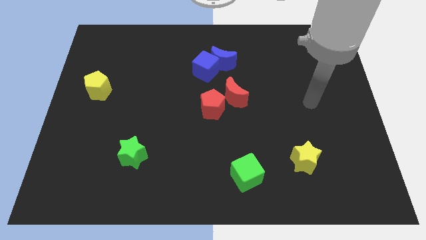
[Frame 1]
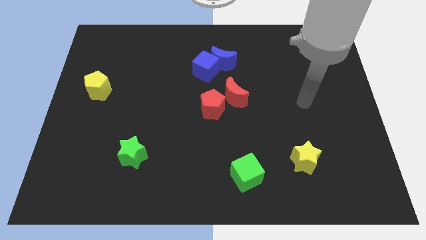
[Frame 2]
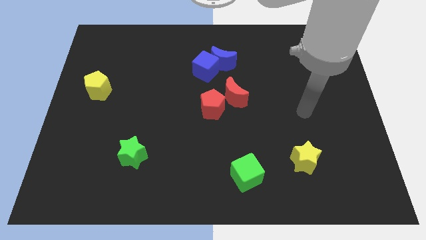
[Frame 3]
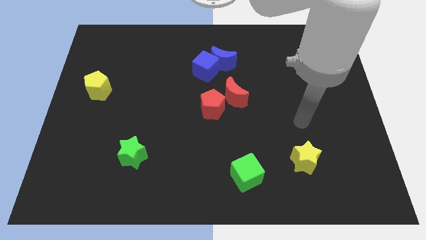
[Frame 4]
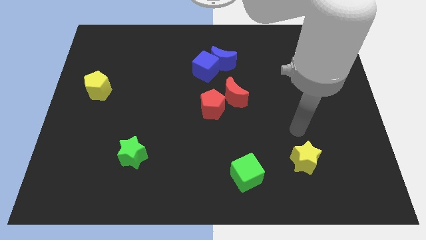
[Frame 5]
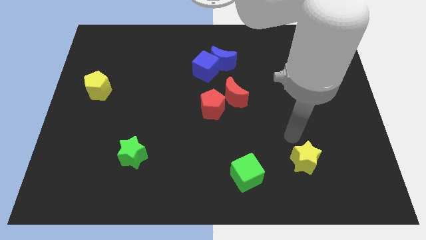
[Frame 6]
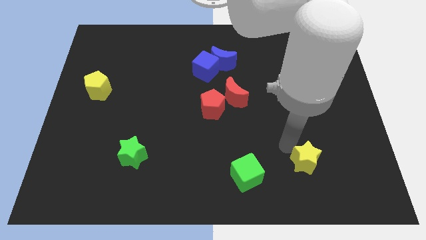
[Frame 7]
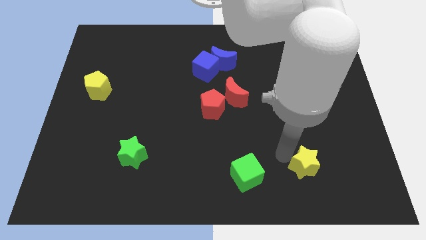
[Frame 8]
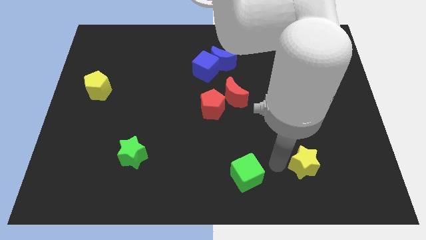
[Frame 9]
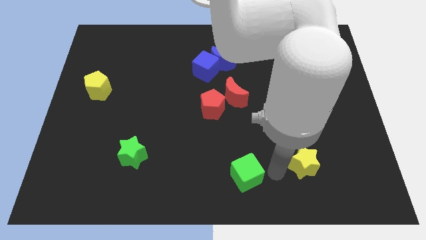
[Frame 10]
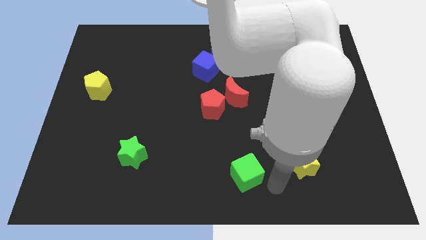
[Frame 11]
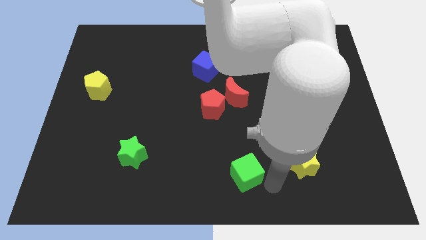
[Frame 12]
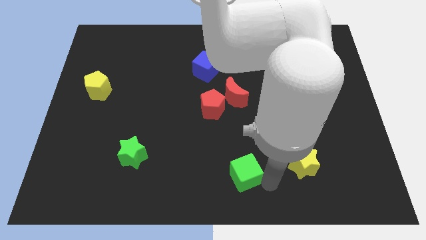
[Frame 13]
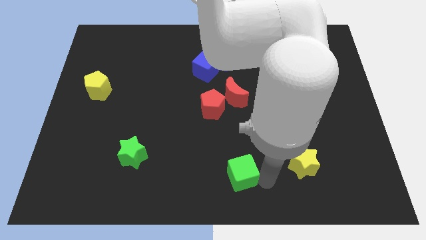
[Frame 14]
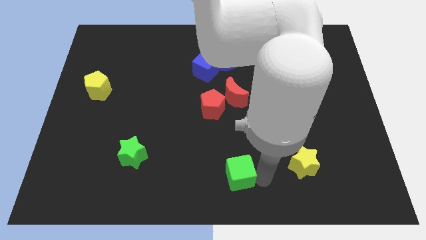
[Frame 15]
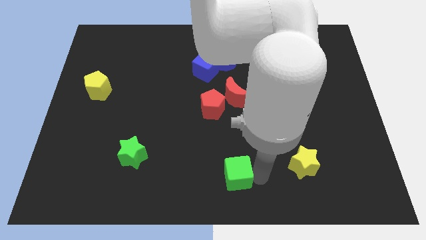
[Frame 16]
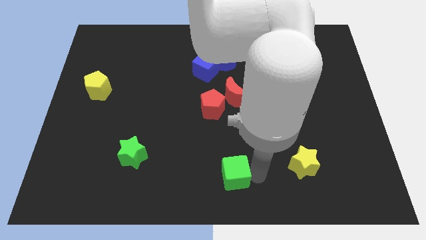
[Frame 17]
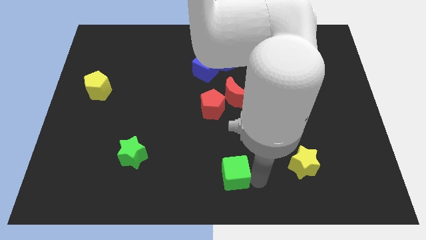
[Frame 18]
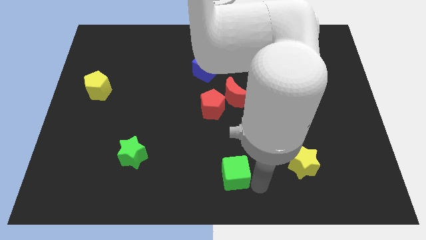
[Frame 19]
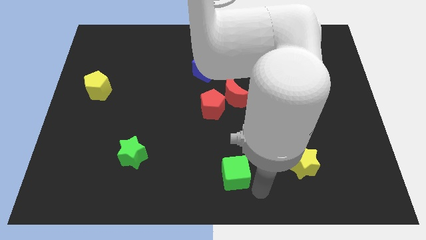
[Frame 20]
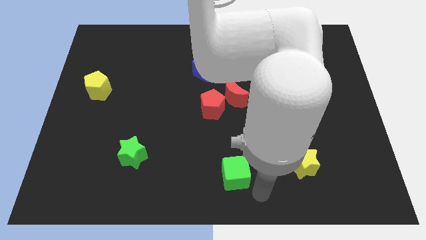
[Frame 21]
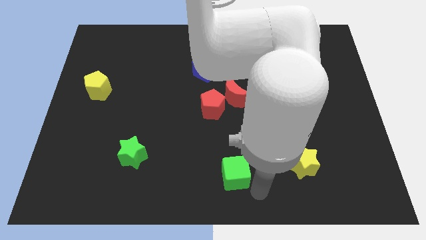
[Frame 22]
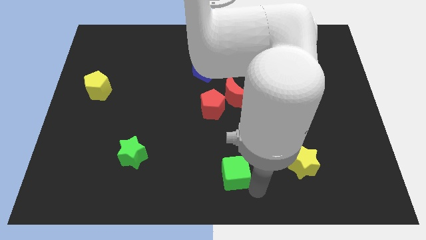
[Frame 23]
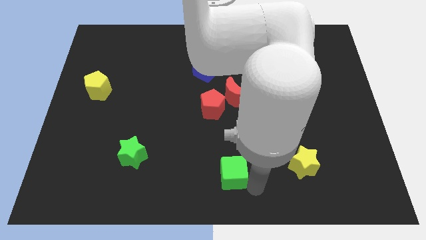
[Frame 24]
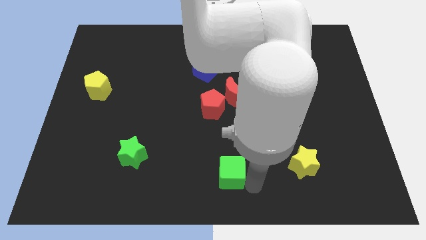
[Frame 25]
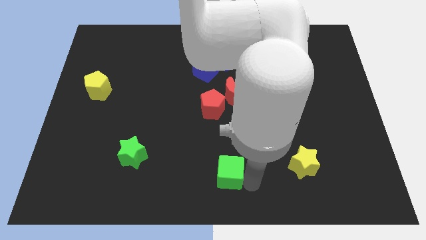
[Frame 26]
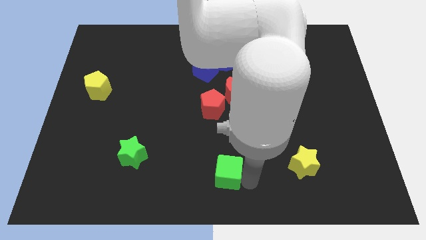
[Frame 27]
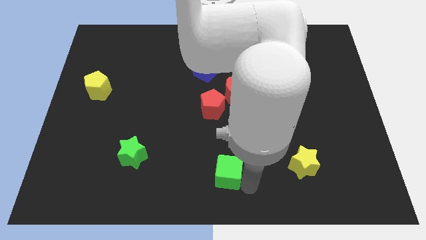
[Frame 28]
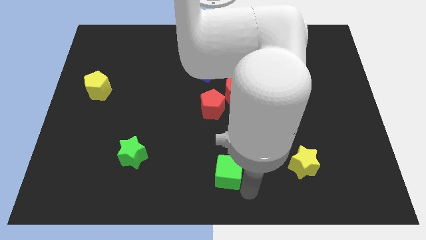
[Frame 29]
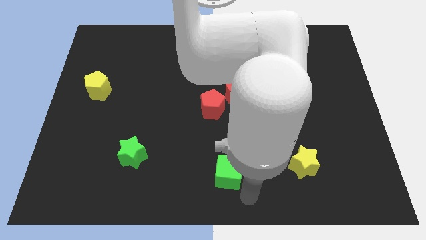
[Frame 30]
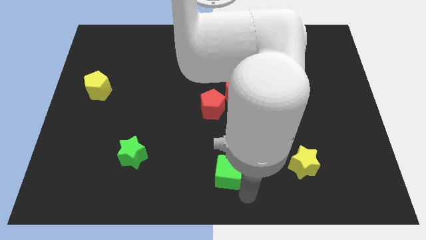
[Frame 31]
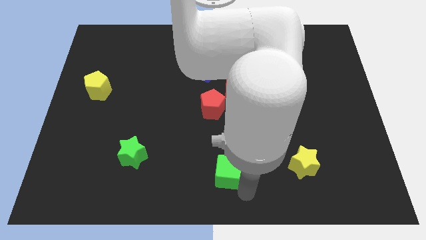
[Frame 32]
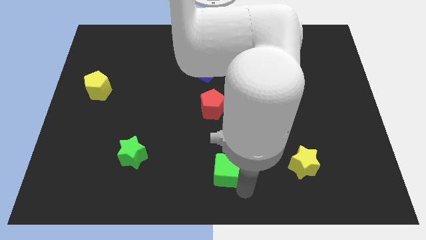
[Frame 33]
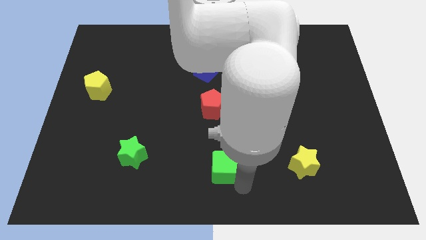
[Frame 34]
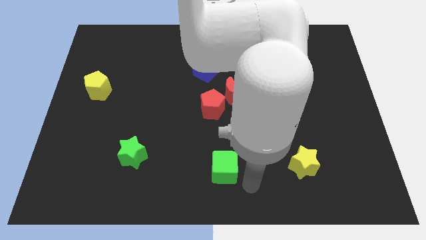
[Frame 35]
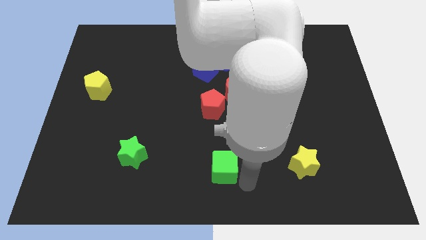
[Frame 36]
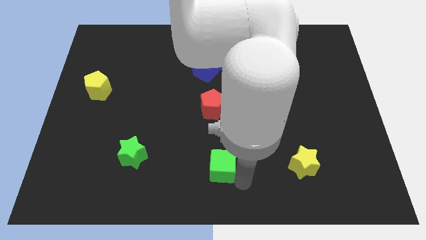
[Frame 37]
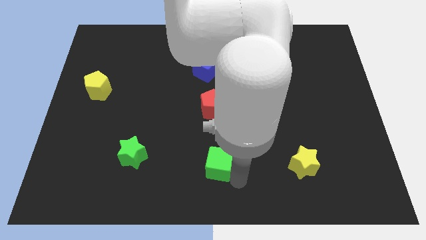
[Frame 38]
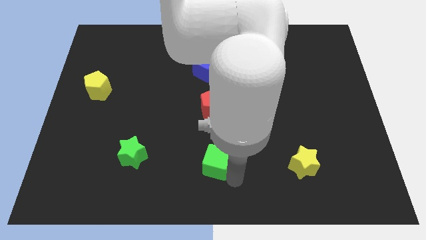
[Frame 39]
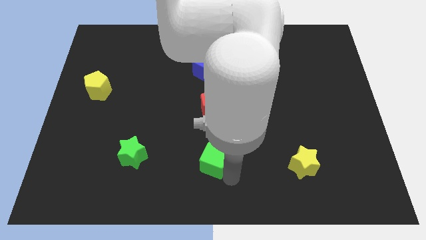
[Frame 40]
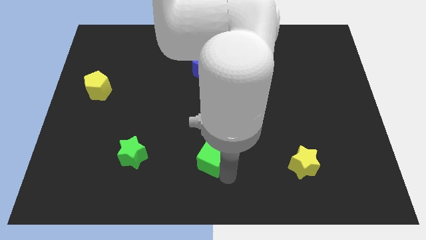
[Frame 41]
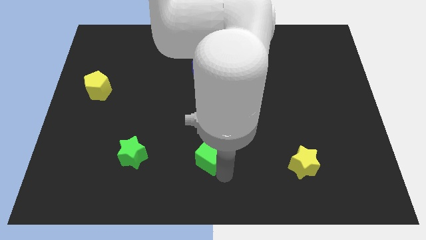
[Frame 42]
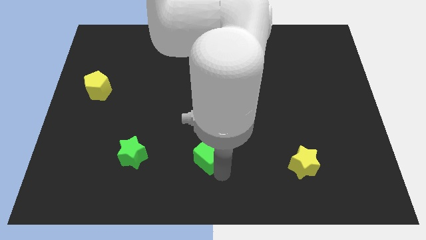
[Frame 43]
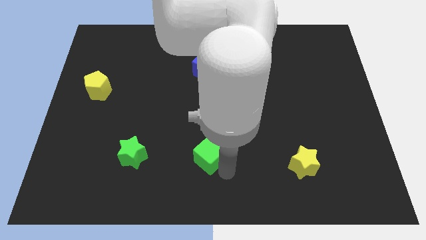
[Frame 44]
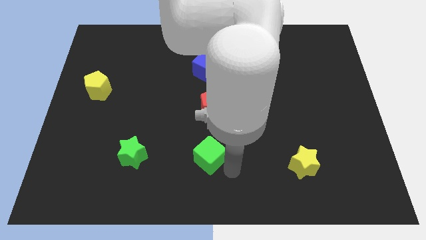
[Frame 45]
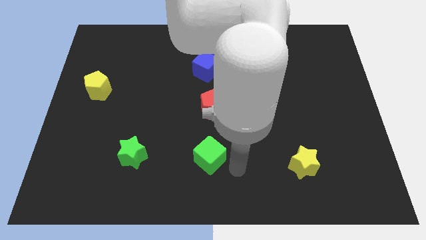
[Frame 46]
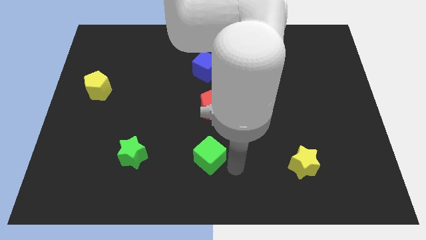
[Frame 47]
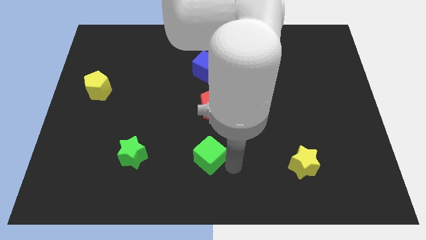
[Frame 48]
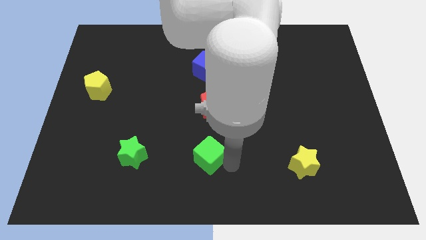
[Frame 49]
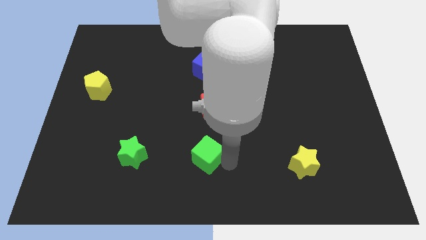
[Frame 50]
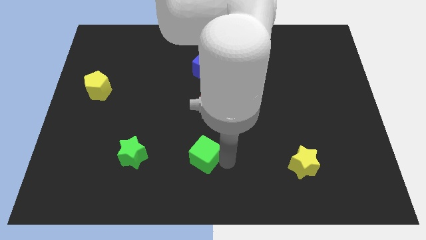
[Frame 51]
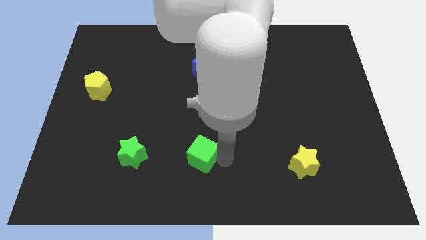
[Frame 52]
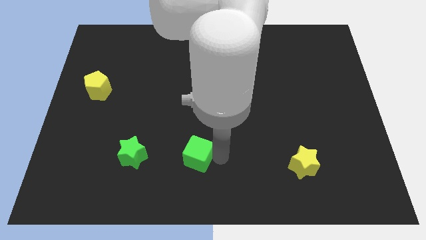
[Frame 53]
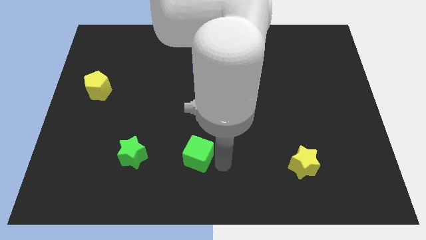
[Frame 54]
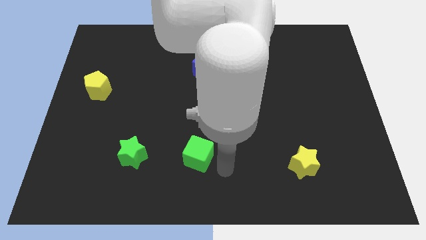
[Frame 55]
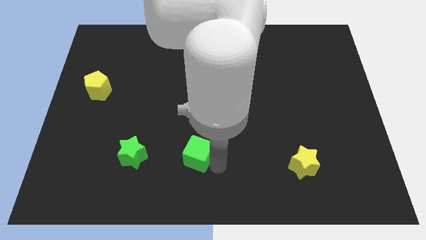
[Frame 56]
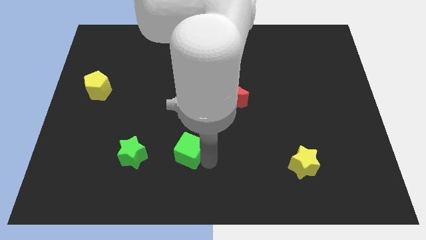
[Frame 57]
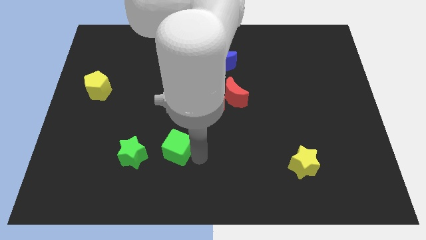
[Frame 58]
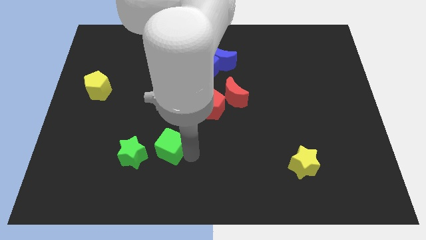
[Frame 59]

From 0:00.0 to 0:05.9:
push the green cube to the top right of the green star
